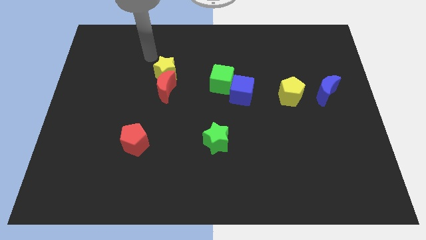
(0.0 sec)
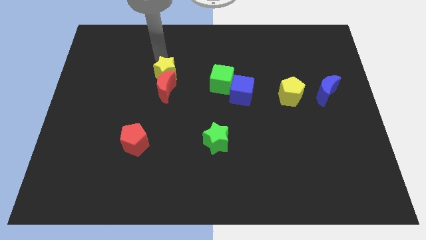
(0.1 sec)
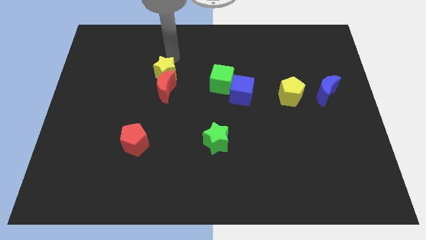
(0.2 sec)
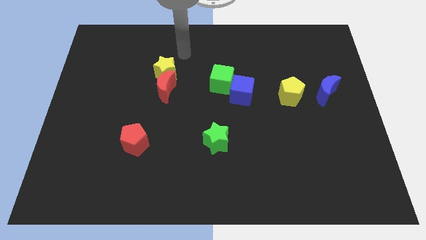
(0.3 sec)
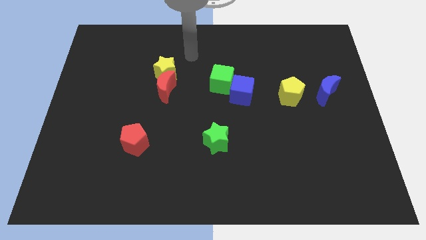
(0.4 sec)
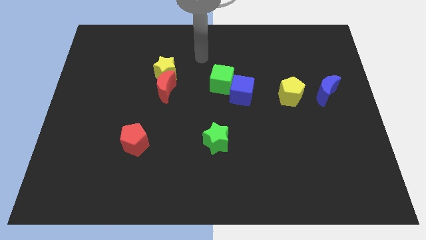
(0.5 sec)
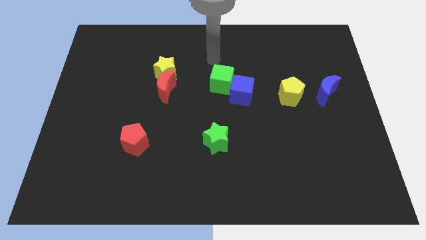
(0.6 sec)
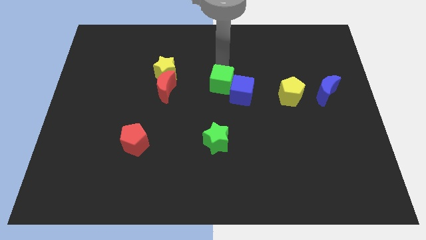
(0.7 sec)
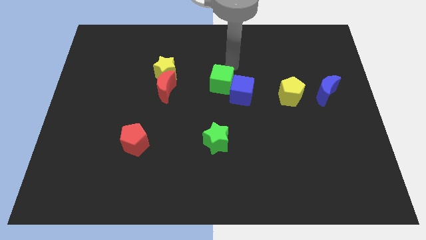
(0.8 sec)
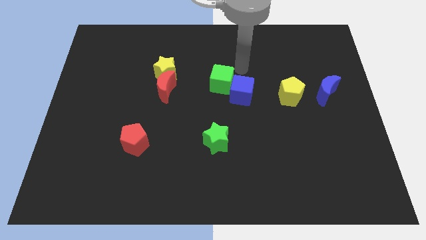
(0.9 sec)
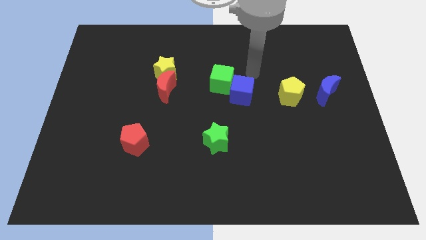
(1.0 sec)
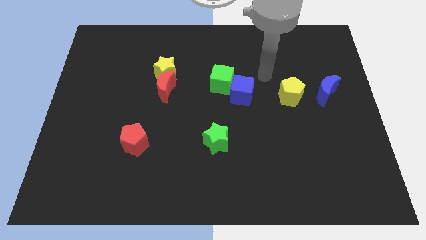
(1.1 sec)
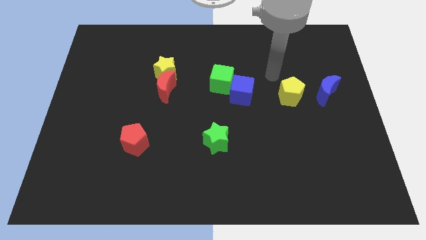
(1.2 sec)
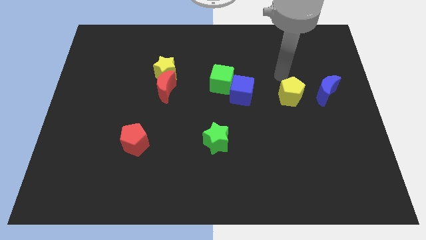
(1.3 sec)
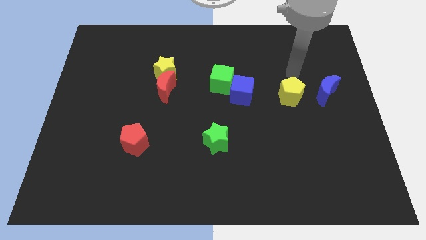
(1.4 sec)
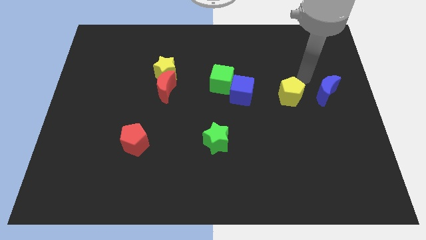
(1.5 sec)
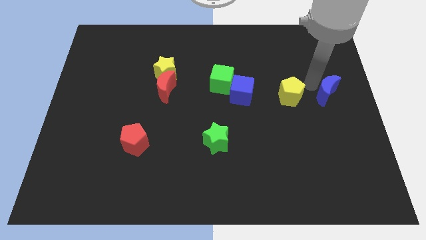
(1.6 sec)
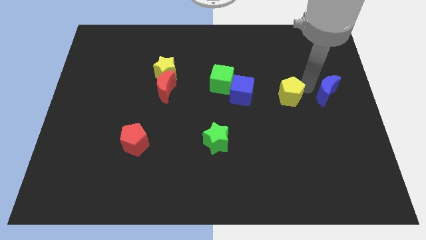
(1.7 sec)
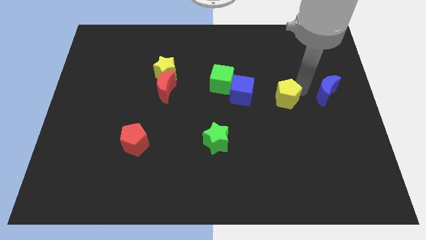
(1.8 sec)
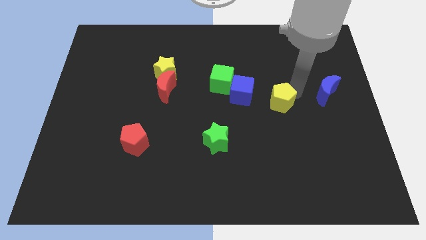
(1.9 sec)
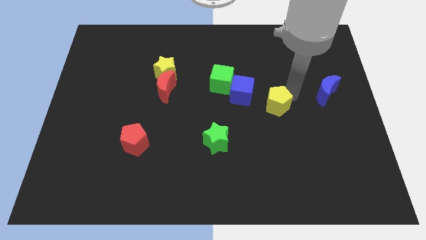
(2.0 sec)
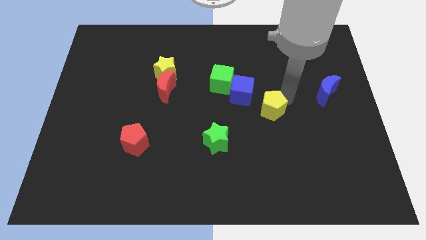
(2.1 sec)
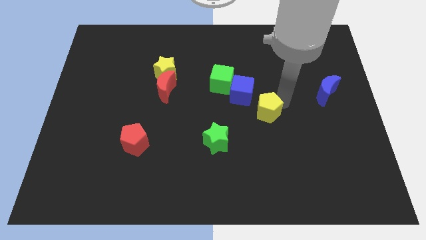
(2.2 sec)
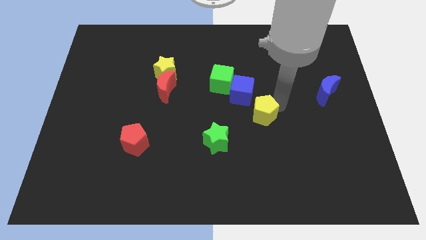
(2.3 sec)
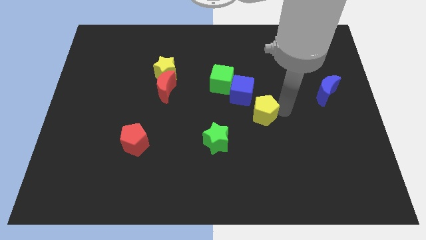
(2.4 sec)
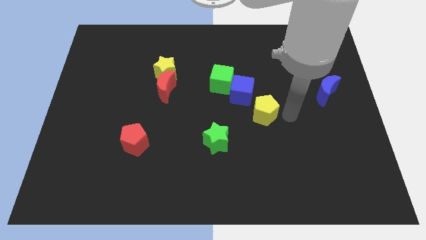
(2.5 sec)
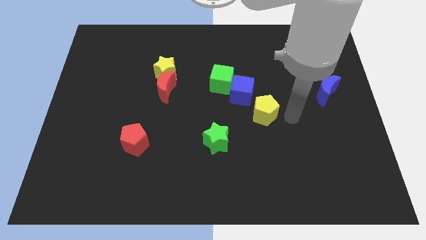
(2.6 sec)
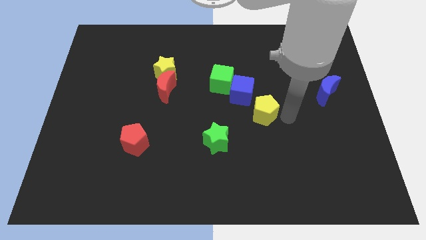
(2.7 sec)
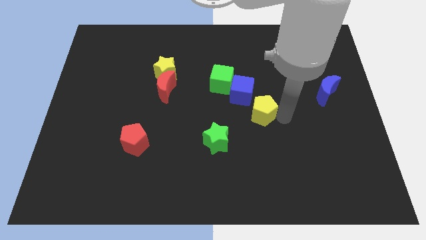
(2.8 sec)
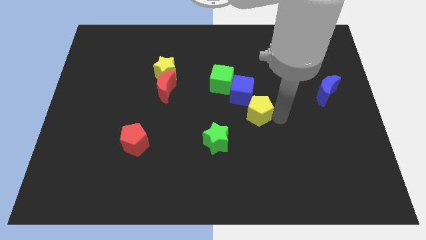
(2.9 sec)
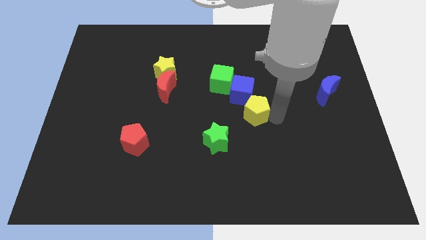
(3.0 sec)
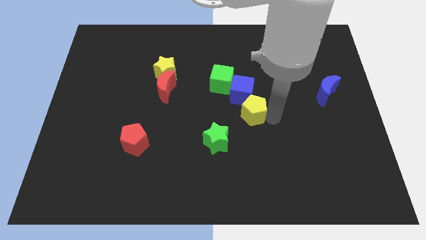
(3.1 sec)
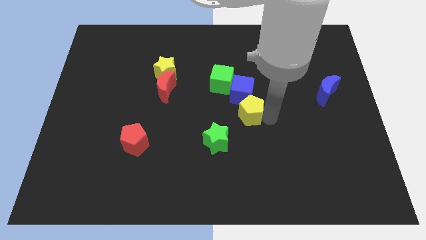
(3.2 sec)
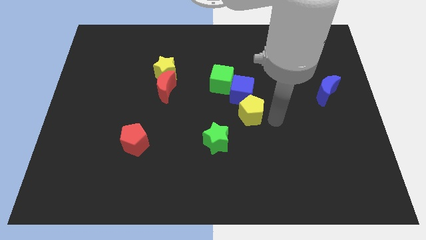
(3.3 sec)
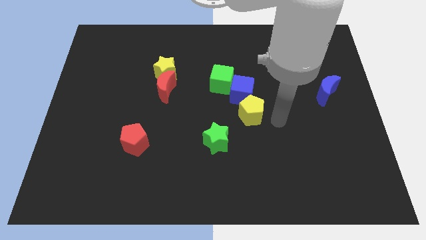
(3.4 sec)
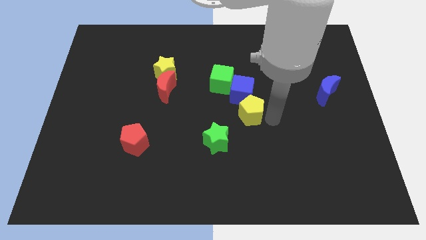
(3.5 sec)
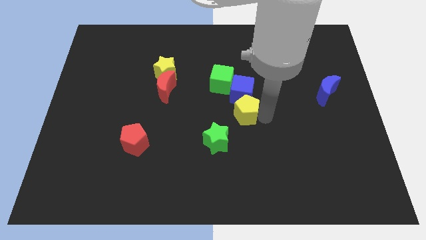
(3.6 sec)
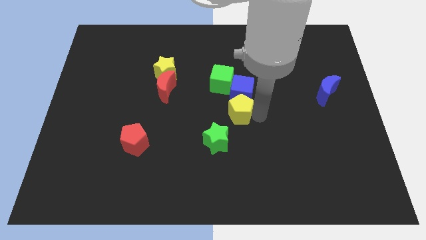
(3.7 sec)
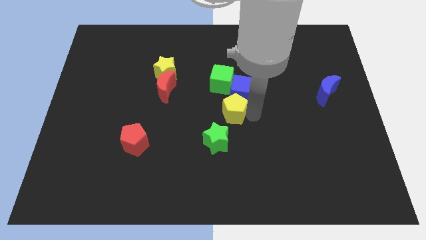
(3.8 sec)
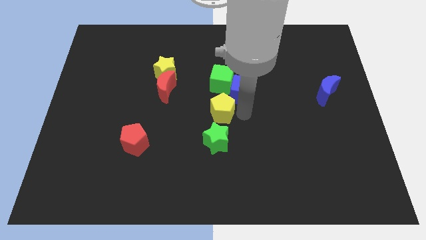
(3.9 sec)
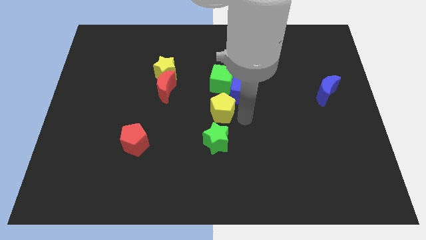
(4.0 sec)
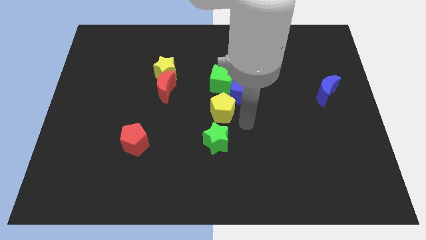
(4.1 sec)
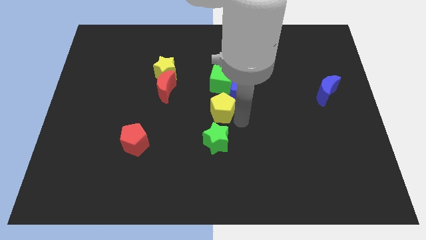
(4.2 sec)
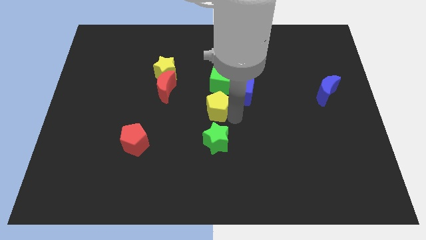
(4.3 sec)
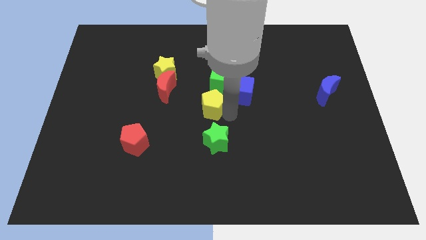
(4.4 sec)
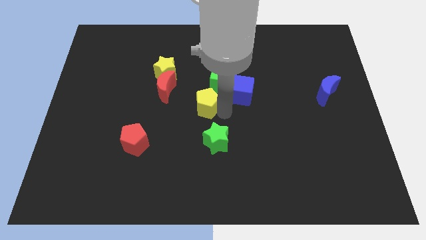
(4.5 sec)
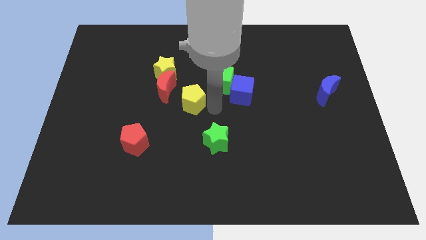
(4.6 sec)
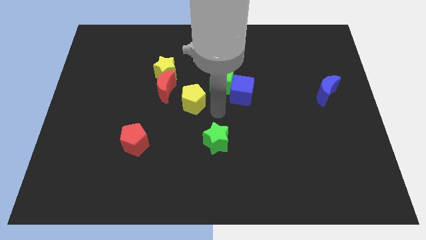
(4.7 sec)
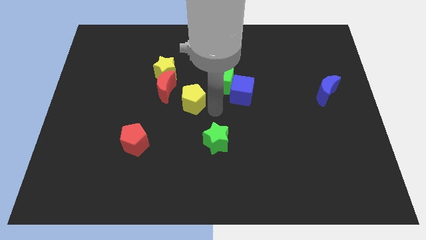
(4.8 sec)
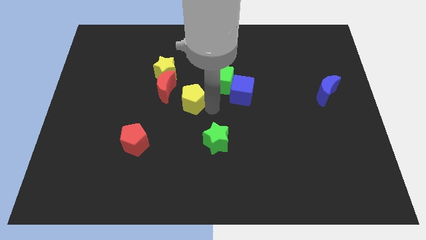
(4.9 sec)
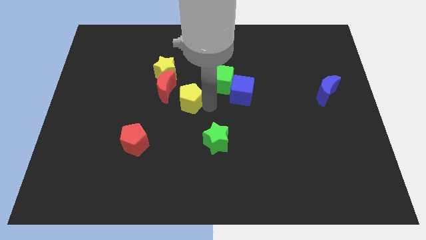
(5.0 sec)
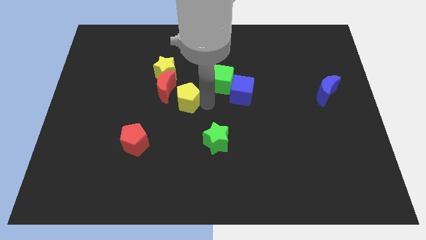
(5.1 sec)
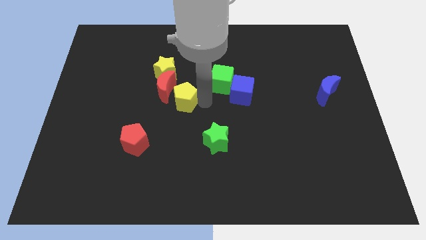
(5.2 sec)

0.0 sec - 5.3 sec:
put the yellow pentagon to the red moon

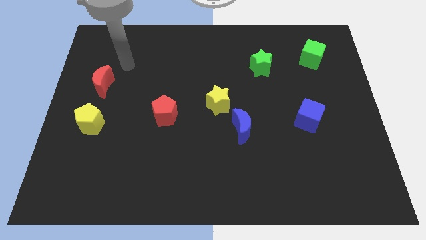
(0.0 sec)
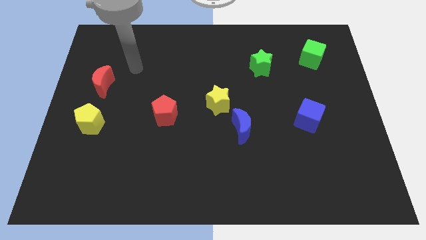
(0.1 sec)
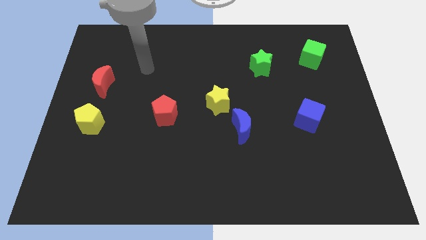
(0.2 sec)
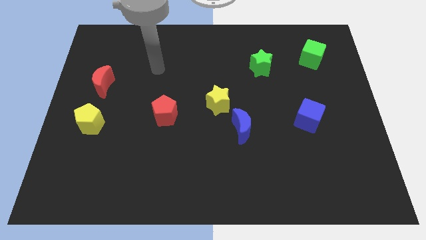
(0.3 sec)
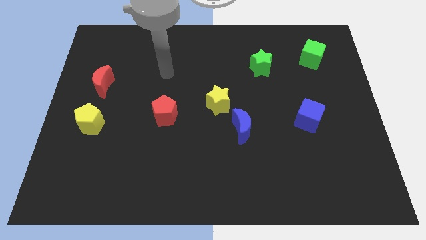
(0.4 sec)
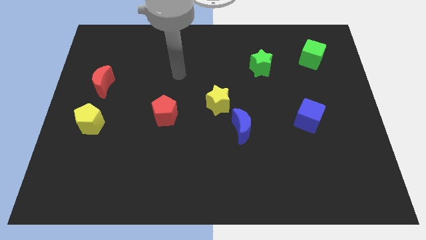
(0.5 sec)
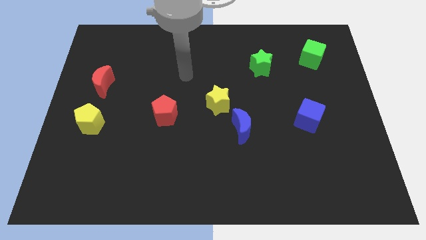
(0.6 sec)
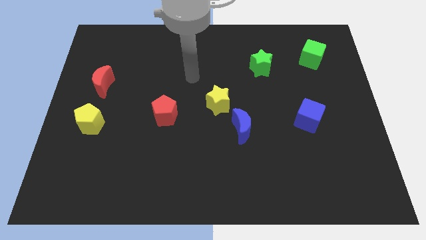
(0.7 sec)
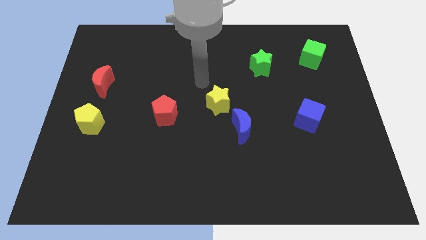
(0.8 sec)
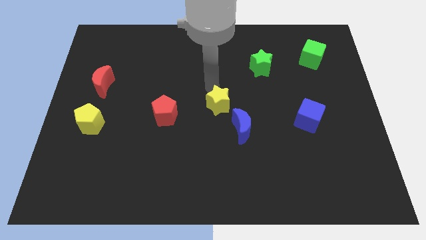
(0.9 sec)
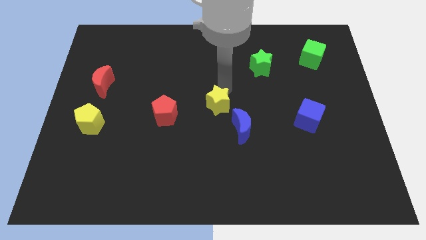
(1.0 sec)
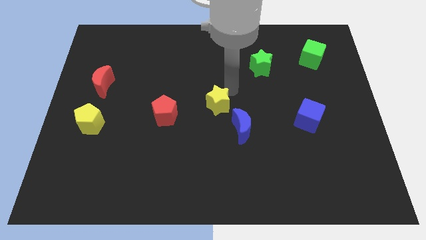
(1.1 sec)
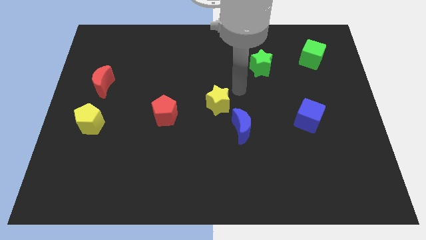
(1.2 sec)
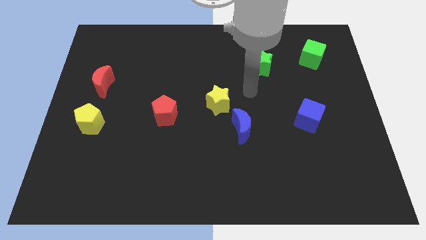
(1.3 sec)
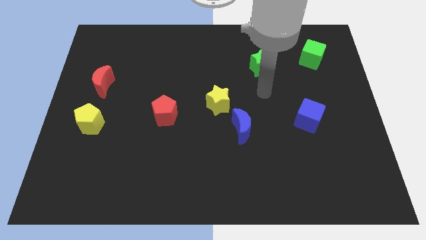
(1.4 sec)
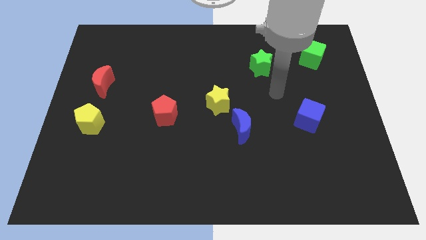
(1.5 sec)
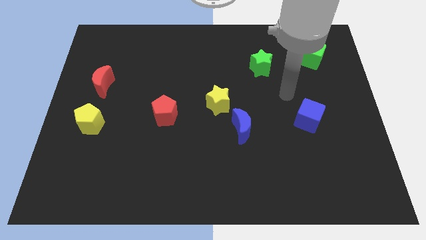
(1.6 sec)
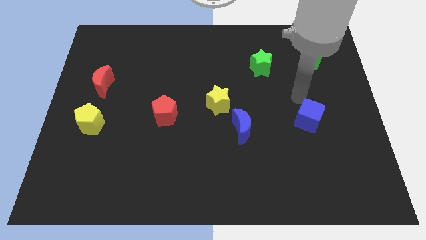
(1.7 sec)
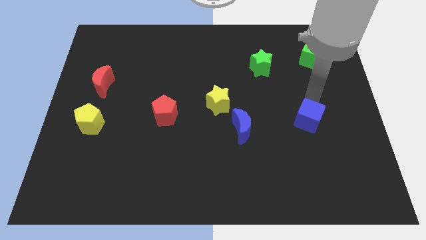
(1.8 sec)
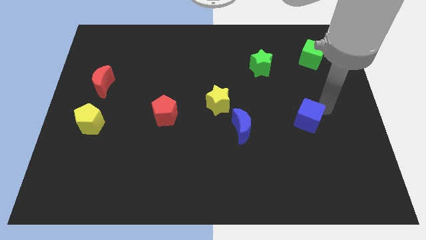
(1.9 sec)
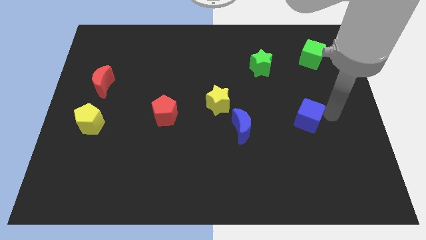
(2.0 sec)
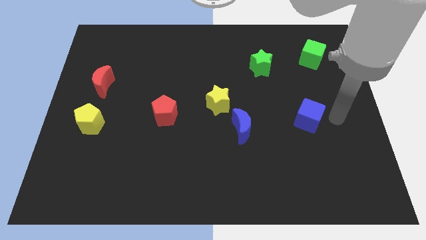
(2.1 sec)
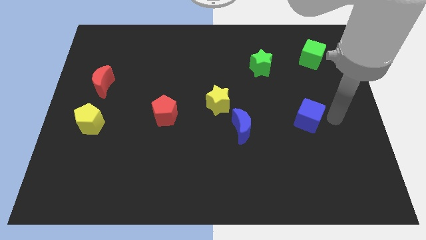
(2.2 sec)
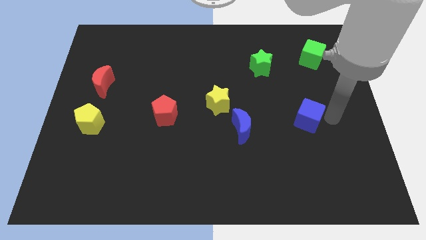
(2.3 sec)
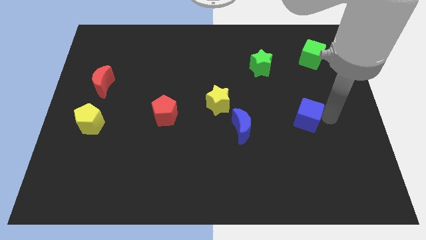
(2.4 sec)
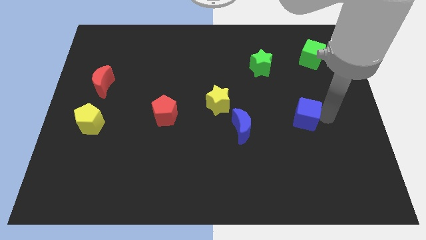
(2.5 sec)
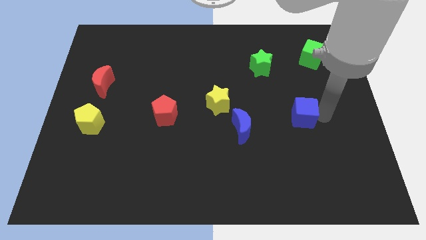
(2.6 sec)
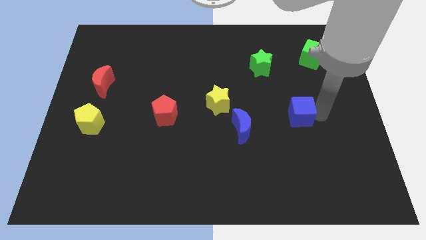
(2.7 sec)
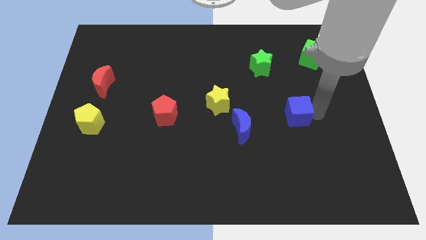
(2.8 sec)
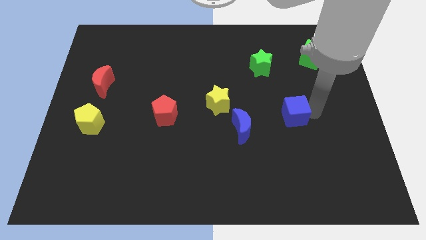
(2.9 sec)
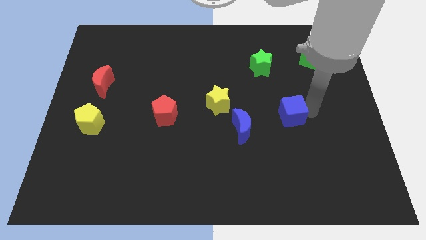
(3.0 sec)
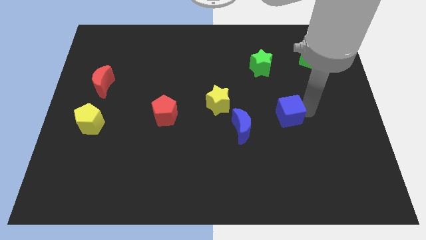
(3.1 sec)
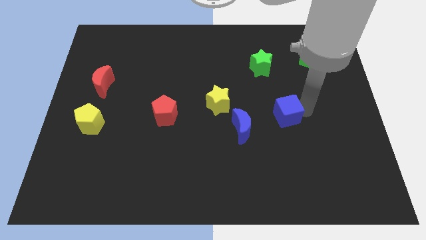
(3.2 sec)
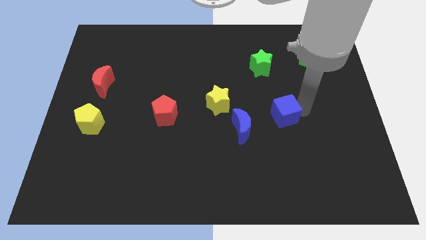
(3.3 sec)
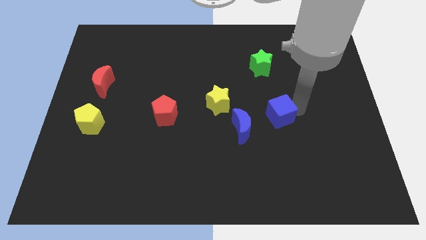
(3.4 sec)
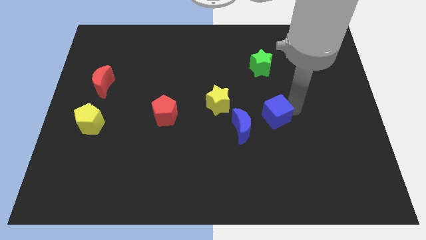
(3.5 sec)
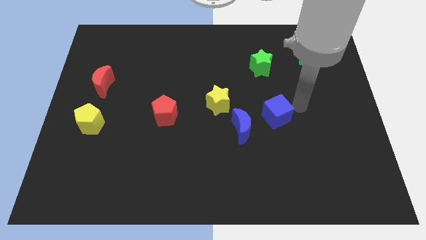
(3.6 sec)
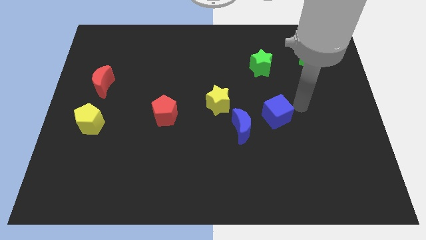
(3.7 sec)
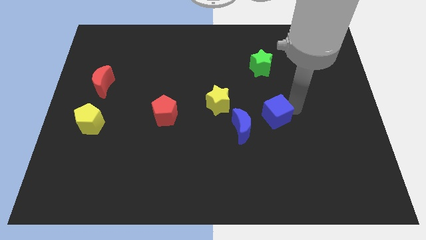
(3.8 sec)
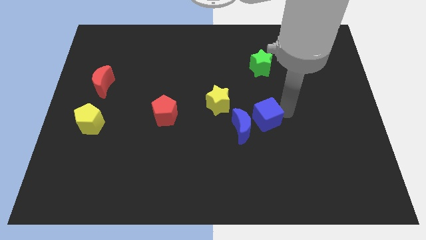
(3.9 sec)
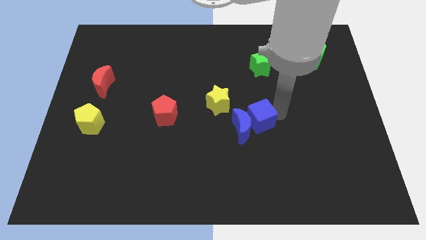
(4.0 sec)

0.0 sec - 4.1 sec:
move the blue cube to the blue moon
